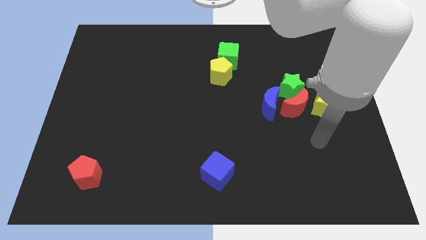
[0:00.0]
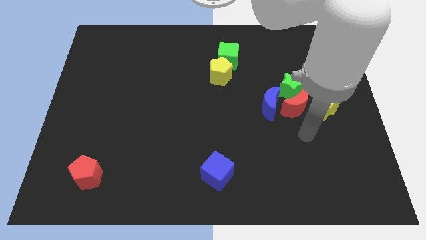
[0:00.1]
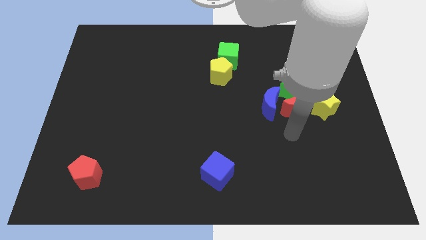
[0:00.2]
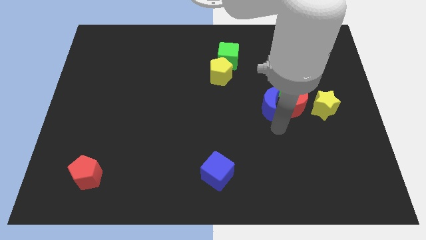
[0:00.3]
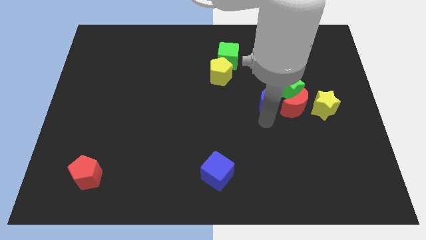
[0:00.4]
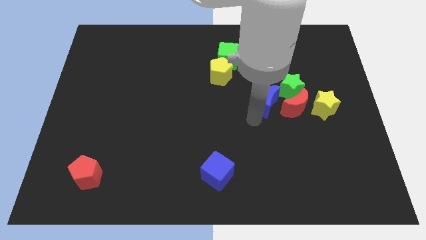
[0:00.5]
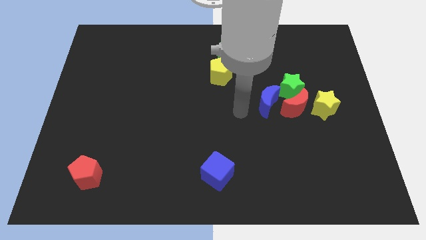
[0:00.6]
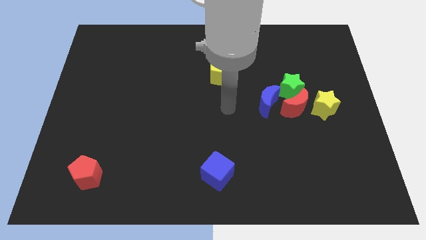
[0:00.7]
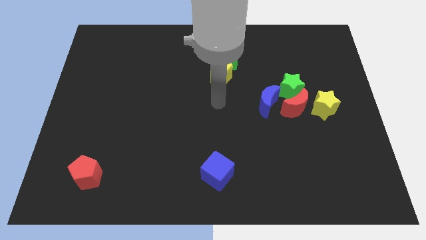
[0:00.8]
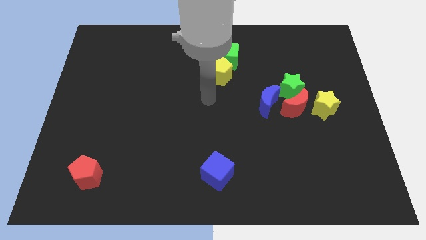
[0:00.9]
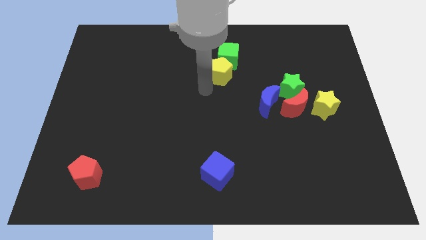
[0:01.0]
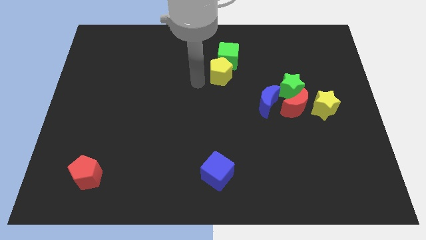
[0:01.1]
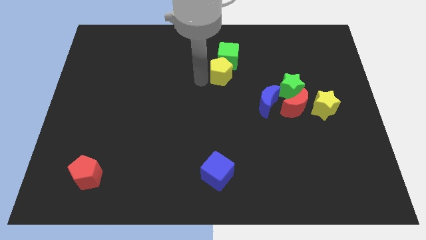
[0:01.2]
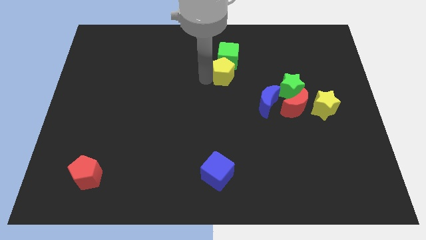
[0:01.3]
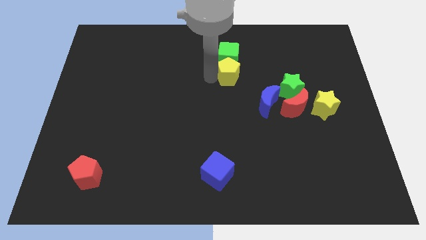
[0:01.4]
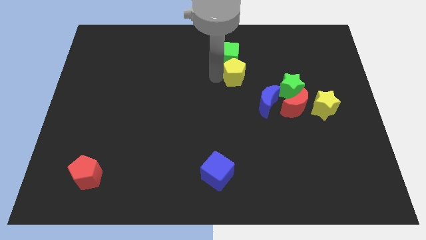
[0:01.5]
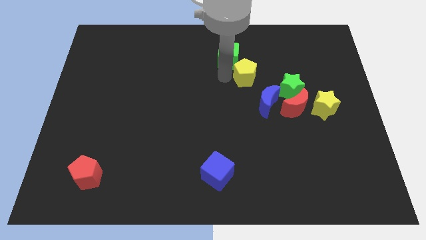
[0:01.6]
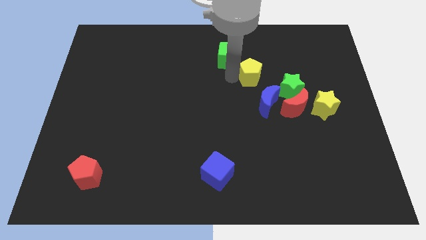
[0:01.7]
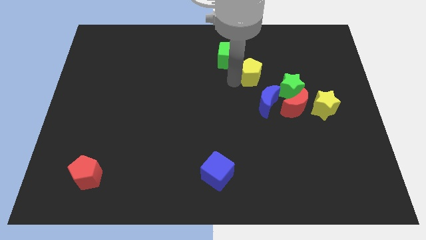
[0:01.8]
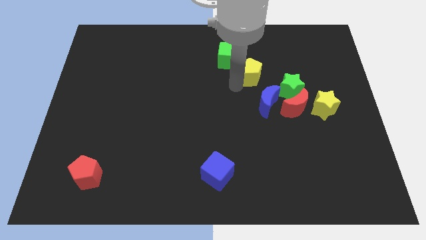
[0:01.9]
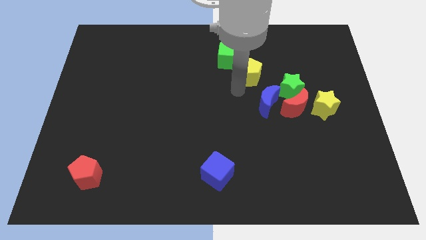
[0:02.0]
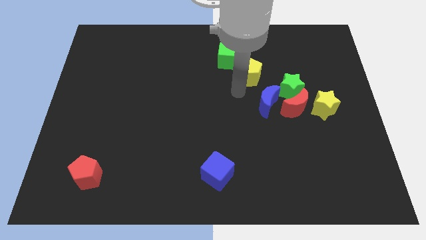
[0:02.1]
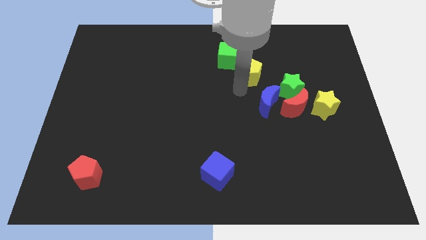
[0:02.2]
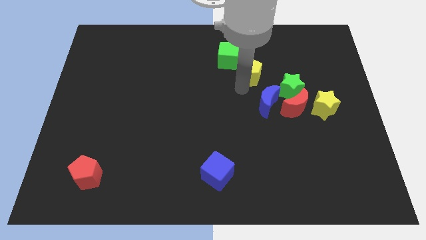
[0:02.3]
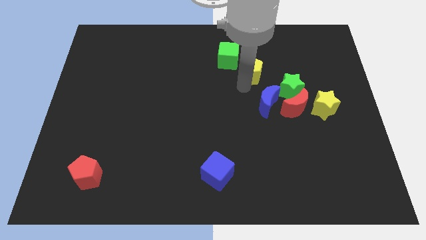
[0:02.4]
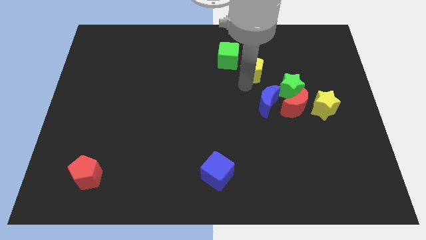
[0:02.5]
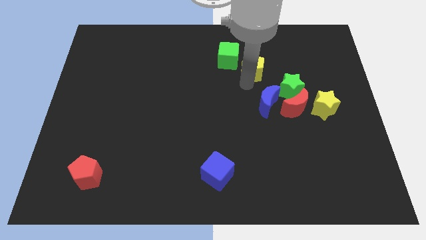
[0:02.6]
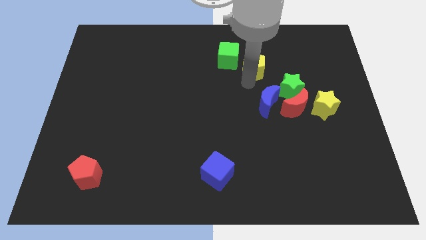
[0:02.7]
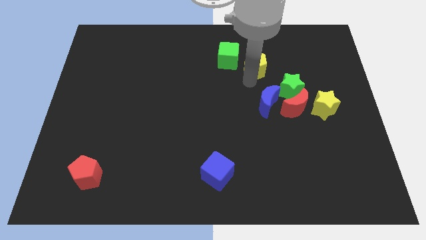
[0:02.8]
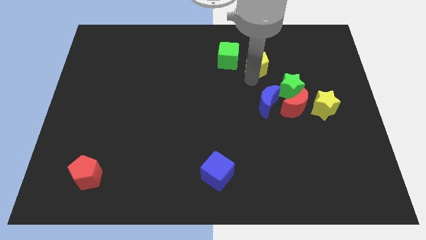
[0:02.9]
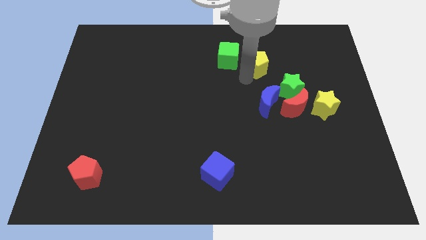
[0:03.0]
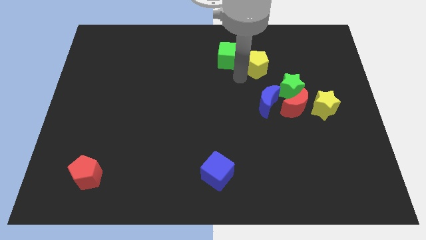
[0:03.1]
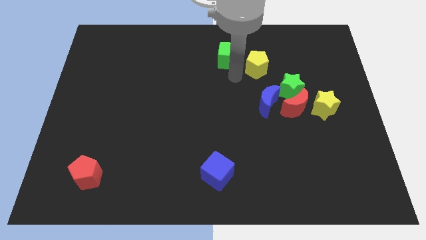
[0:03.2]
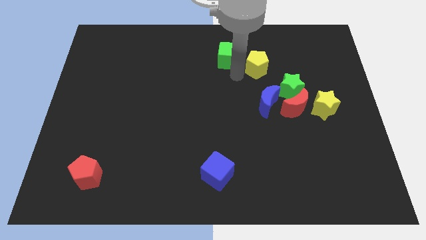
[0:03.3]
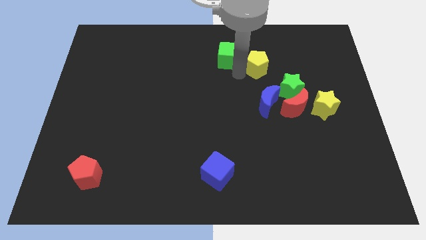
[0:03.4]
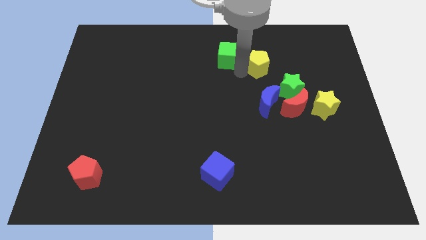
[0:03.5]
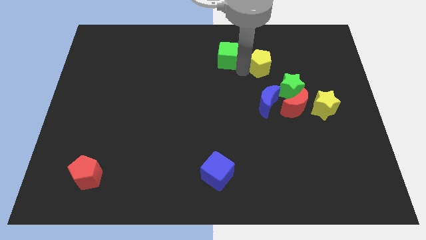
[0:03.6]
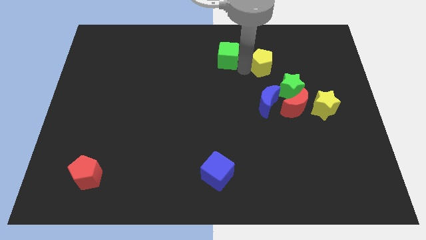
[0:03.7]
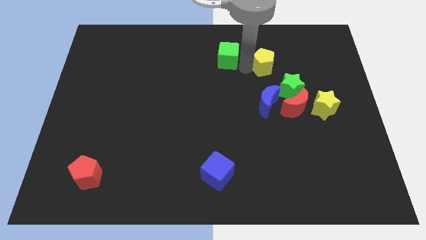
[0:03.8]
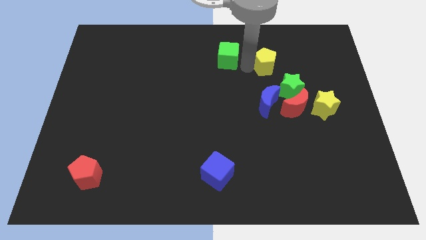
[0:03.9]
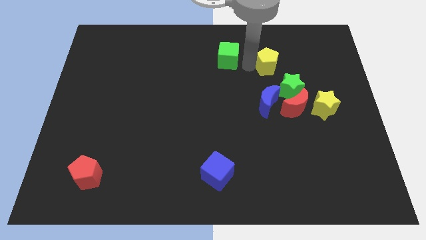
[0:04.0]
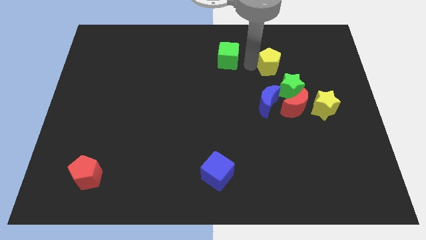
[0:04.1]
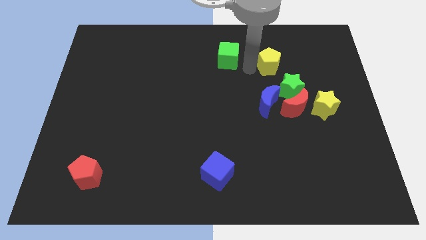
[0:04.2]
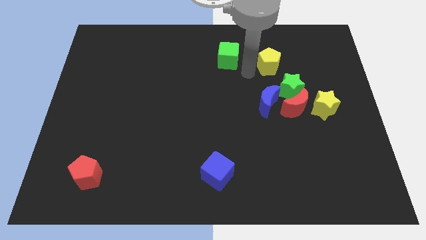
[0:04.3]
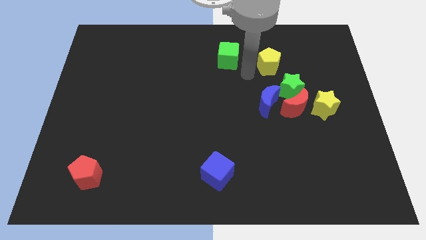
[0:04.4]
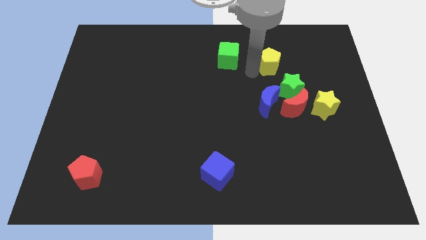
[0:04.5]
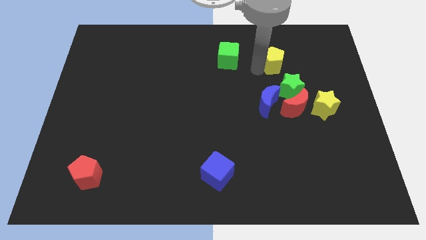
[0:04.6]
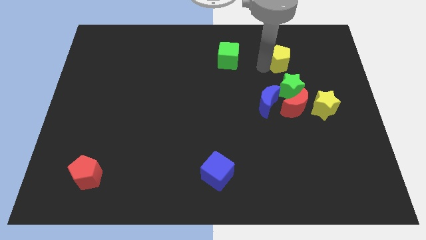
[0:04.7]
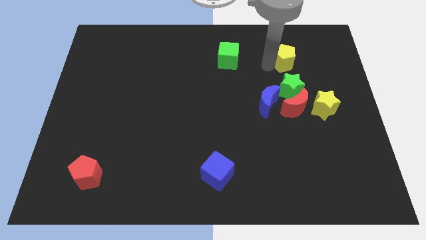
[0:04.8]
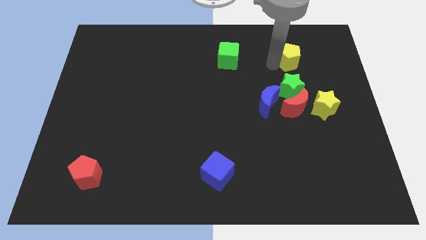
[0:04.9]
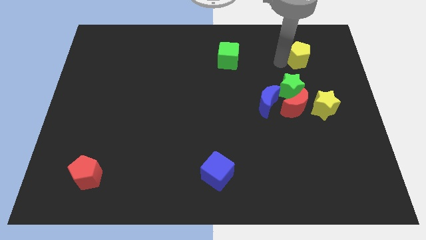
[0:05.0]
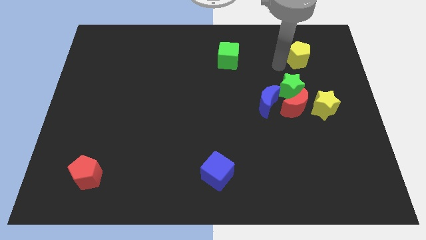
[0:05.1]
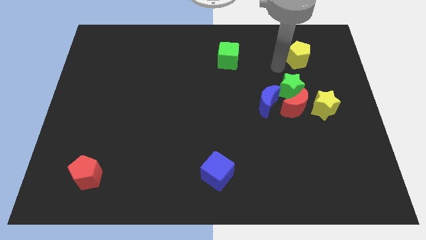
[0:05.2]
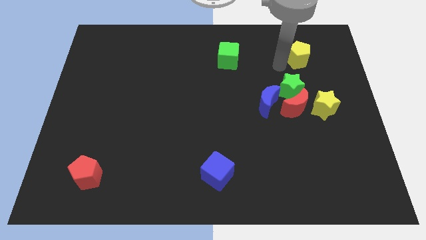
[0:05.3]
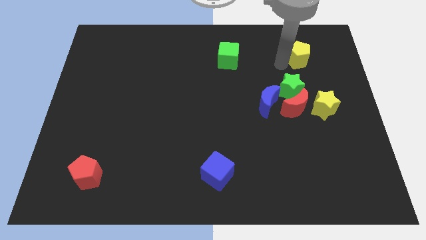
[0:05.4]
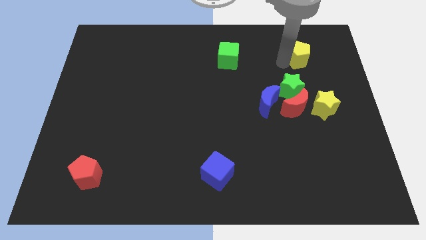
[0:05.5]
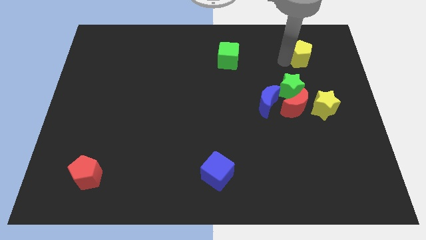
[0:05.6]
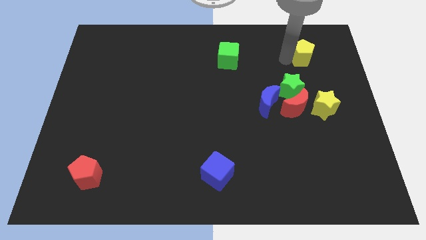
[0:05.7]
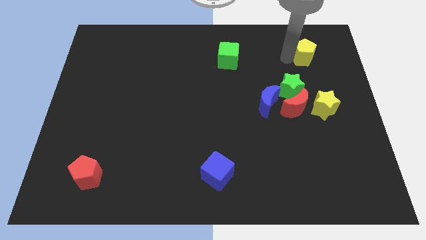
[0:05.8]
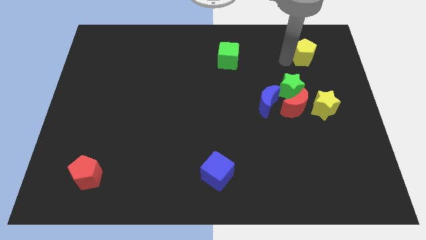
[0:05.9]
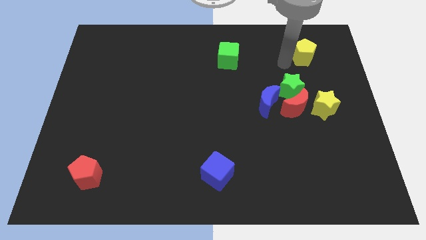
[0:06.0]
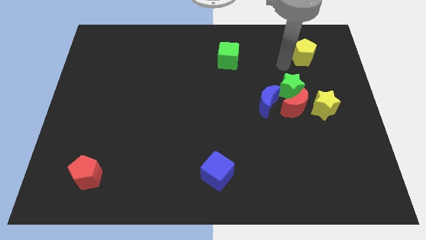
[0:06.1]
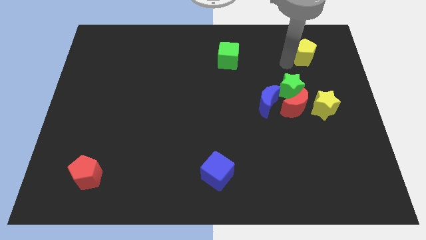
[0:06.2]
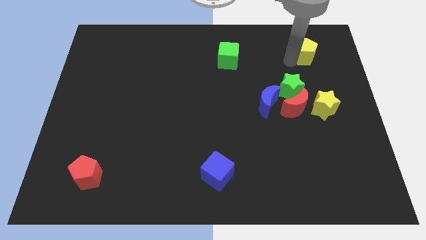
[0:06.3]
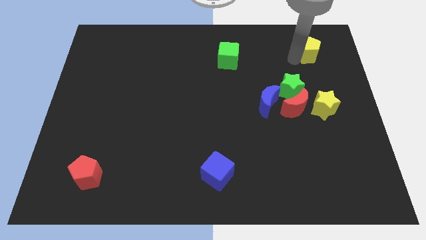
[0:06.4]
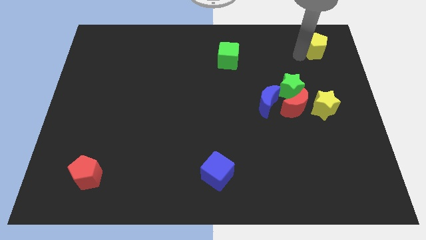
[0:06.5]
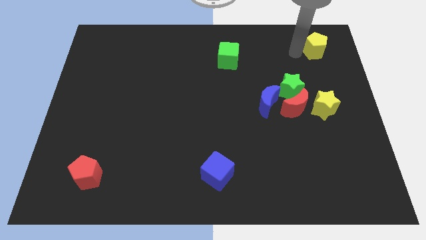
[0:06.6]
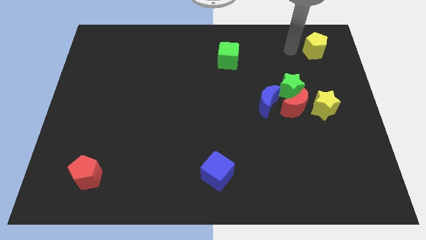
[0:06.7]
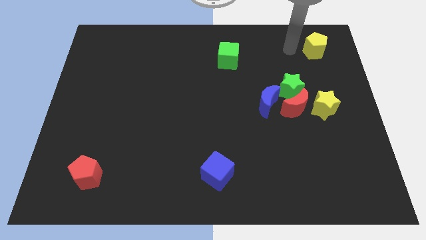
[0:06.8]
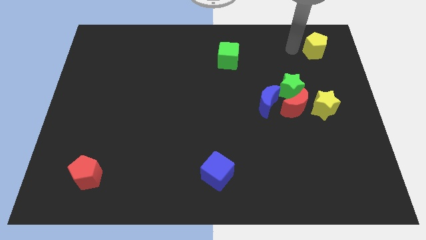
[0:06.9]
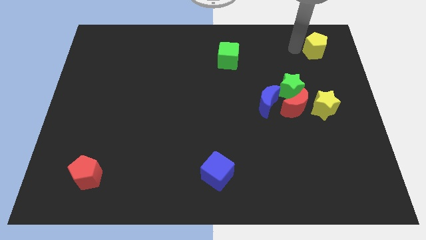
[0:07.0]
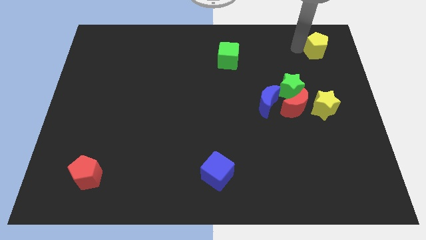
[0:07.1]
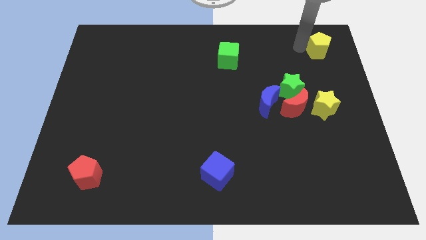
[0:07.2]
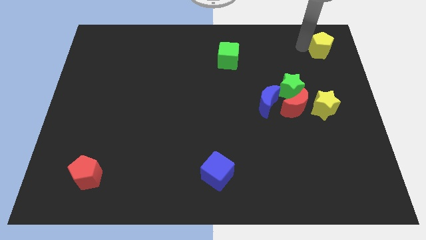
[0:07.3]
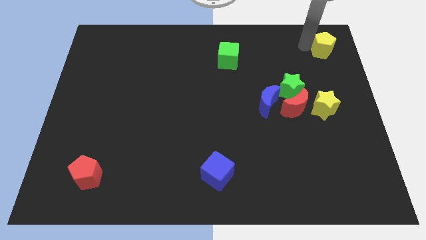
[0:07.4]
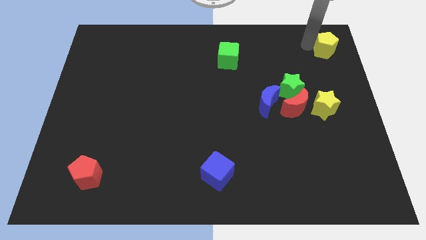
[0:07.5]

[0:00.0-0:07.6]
push the yellow pentagon to the top right of the board
